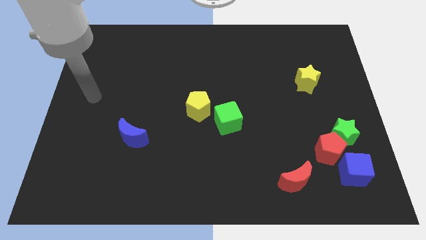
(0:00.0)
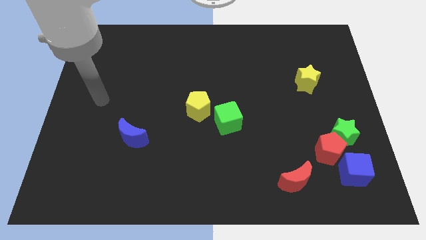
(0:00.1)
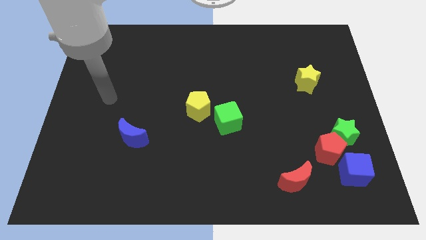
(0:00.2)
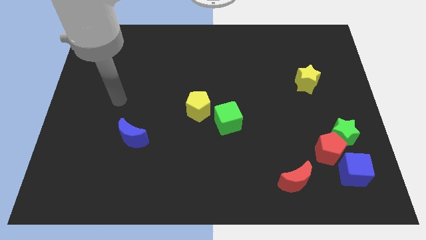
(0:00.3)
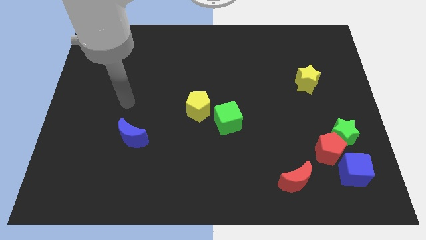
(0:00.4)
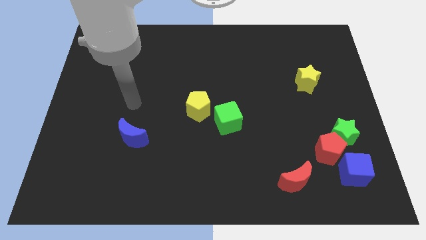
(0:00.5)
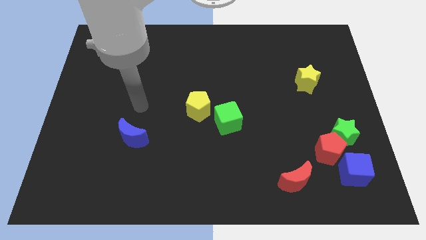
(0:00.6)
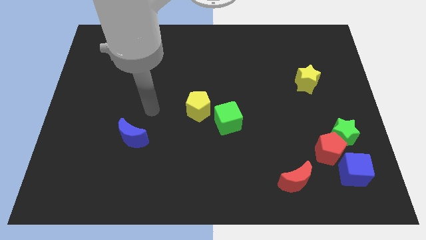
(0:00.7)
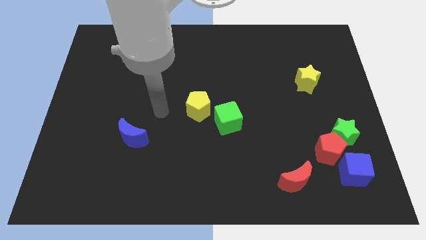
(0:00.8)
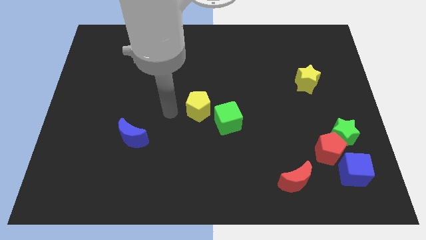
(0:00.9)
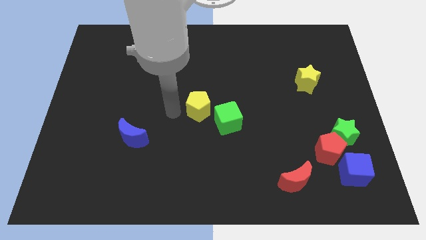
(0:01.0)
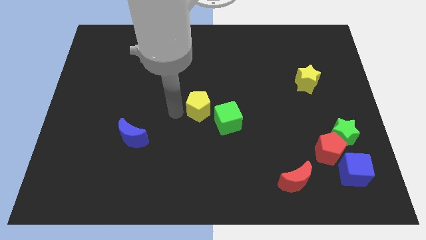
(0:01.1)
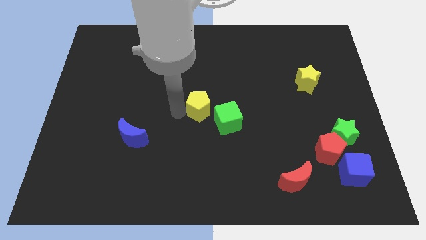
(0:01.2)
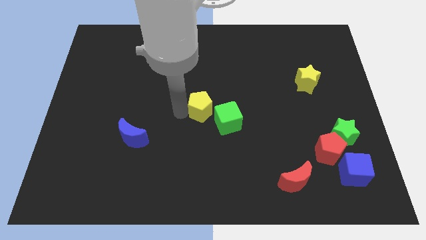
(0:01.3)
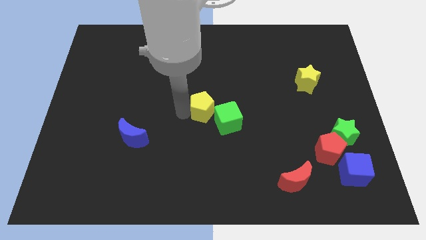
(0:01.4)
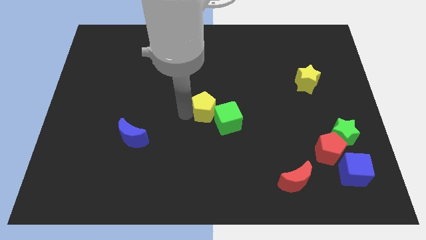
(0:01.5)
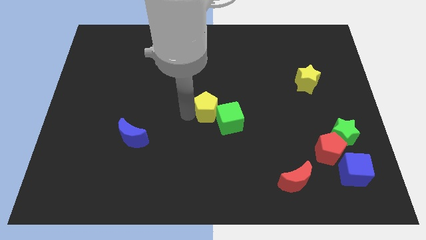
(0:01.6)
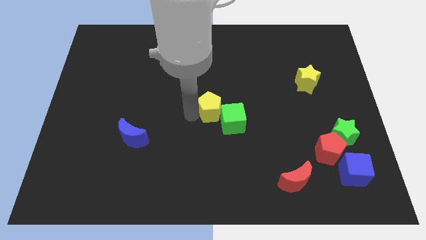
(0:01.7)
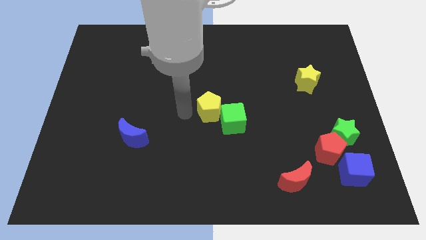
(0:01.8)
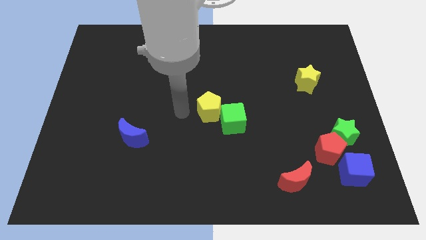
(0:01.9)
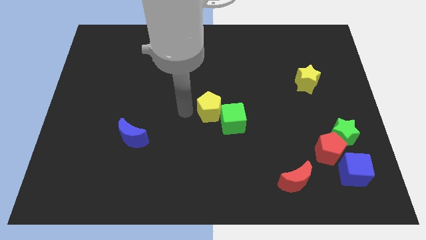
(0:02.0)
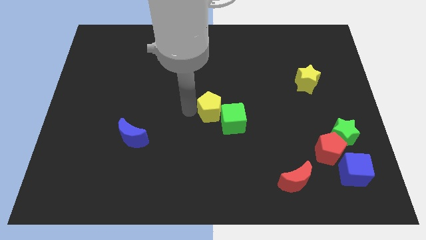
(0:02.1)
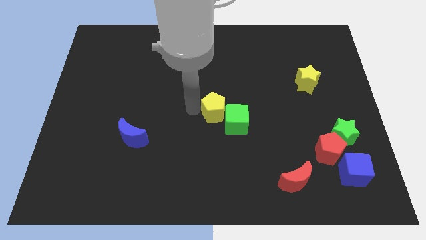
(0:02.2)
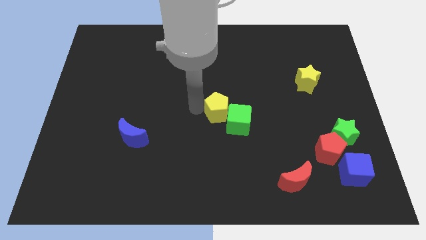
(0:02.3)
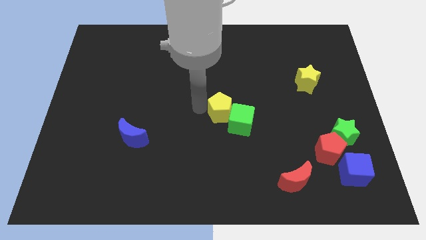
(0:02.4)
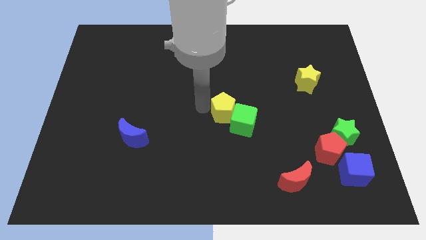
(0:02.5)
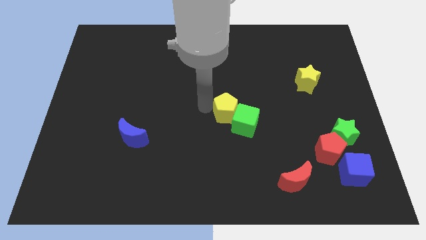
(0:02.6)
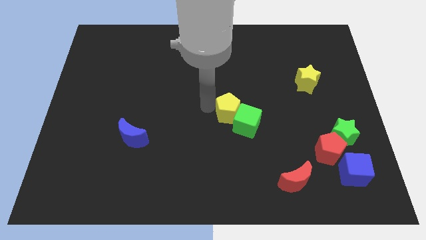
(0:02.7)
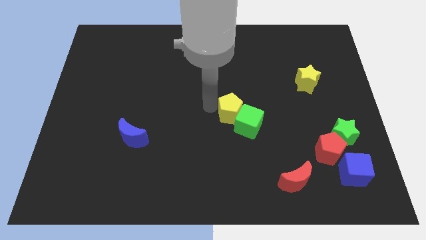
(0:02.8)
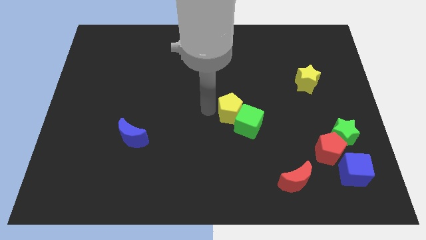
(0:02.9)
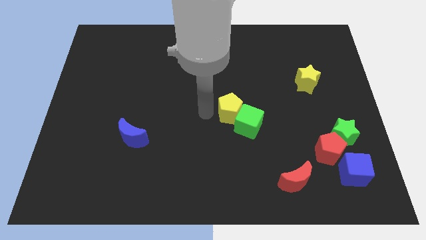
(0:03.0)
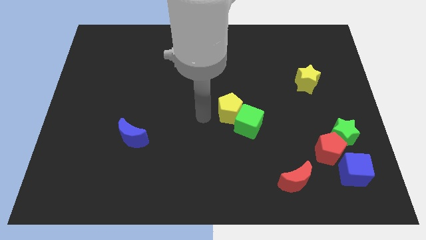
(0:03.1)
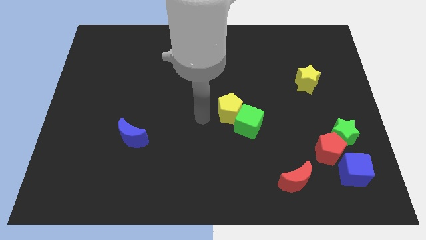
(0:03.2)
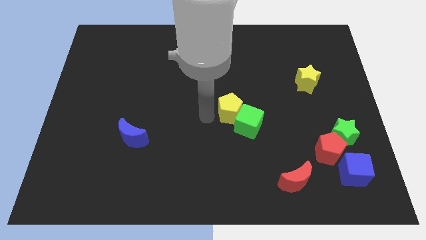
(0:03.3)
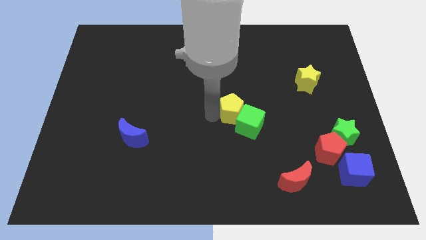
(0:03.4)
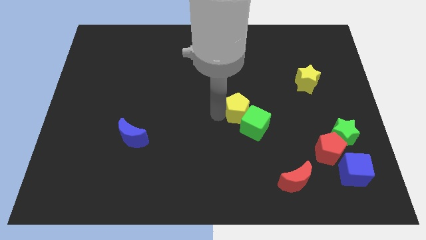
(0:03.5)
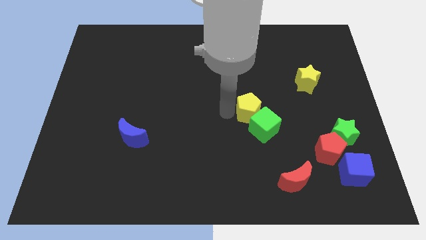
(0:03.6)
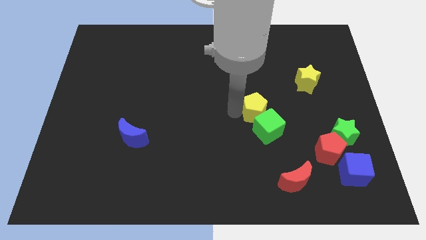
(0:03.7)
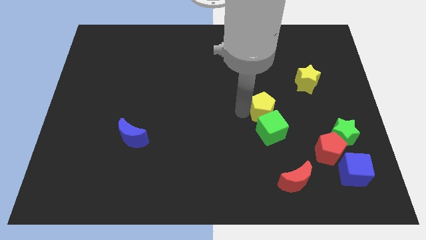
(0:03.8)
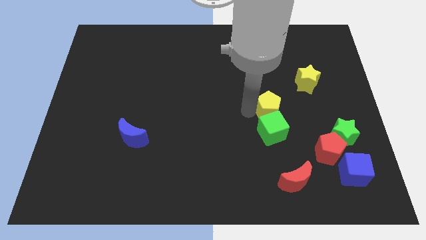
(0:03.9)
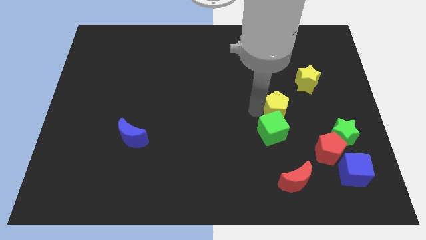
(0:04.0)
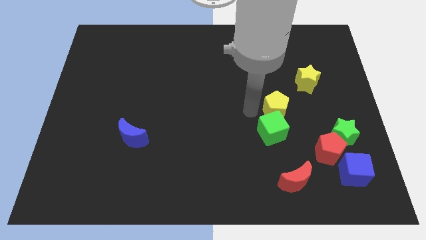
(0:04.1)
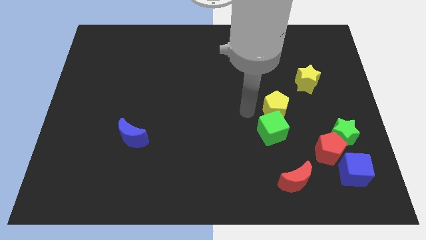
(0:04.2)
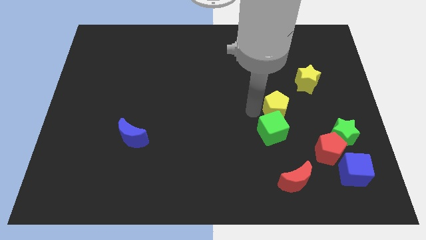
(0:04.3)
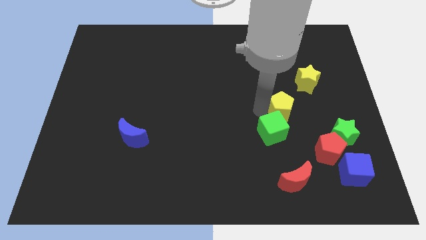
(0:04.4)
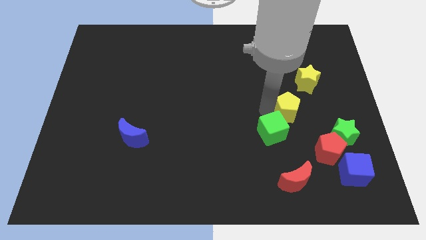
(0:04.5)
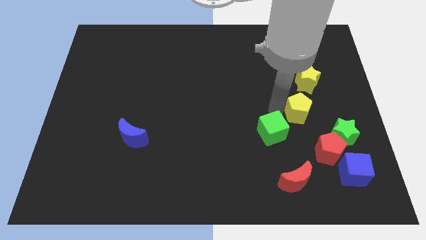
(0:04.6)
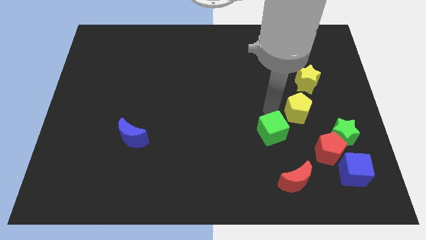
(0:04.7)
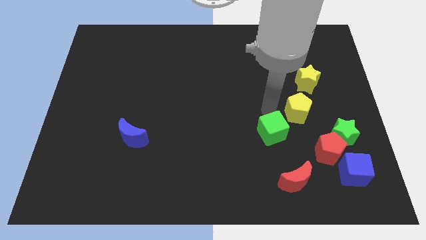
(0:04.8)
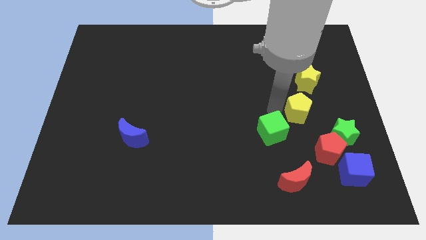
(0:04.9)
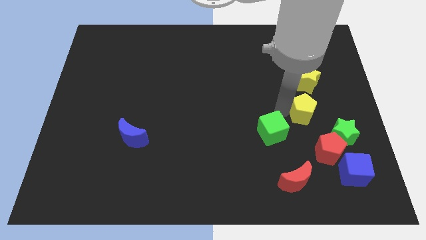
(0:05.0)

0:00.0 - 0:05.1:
push the yellow pentagon above the red pentagon

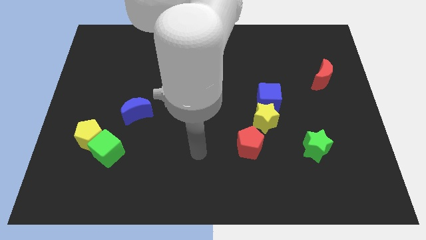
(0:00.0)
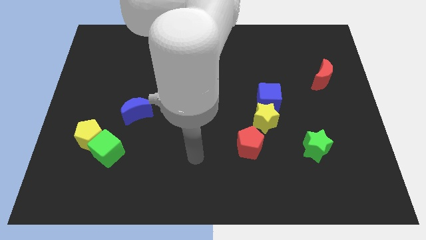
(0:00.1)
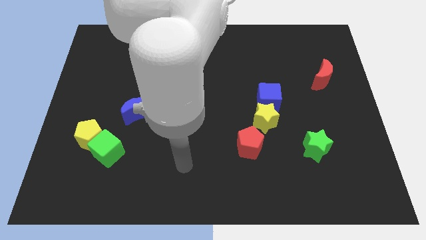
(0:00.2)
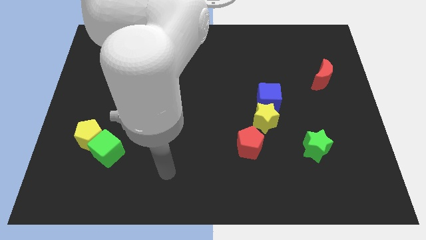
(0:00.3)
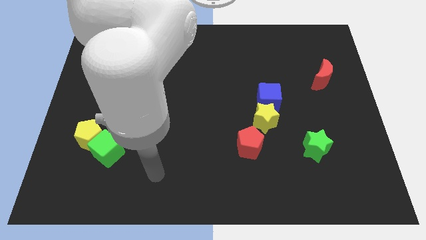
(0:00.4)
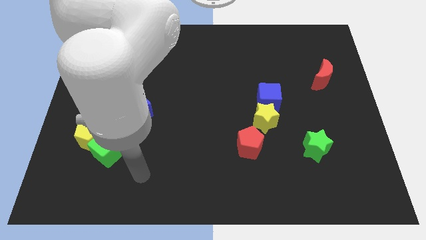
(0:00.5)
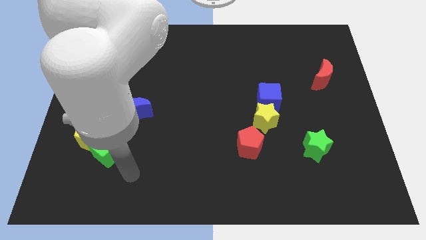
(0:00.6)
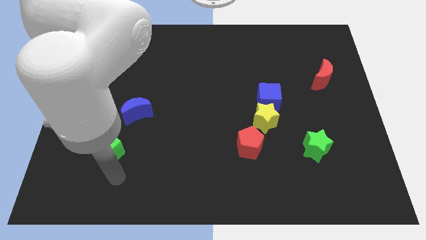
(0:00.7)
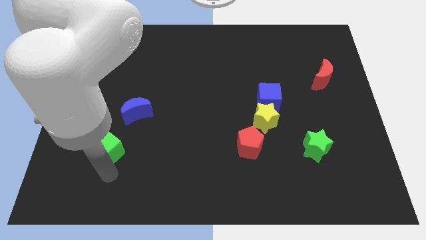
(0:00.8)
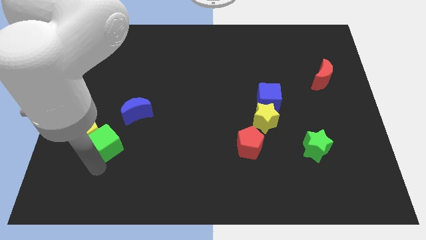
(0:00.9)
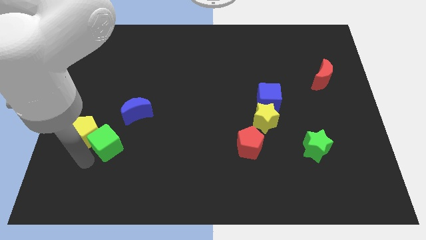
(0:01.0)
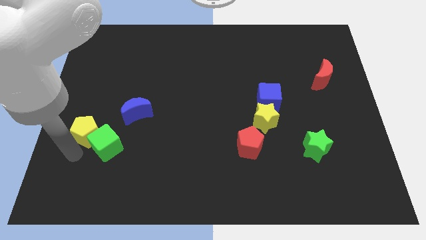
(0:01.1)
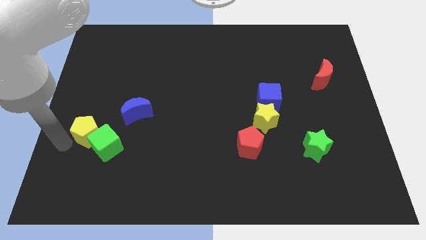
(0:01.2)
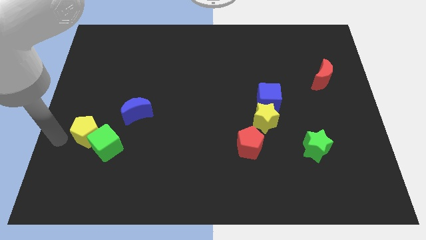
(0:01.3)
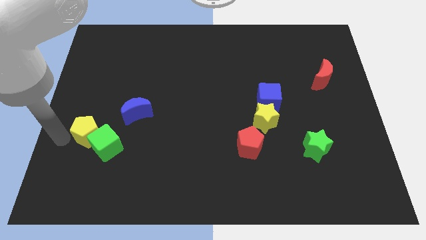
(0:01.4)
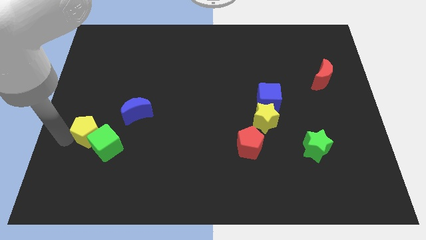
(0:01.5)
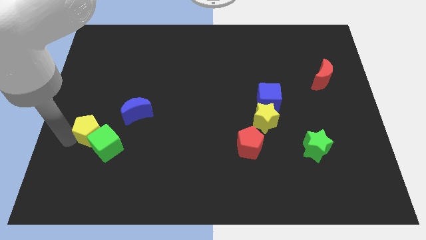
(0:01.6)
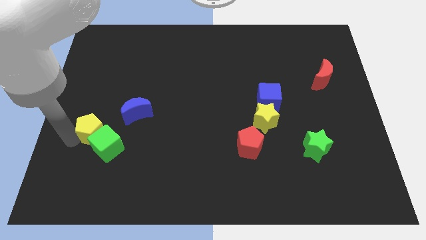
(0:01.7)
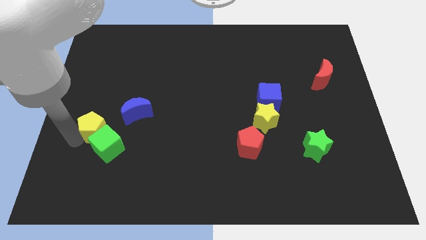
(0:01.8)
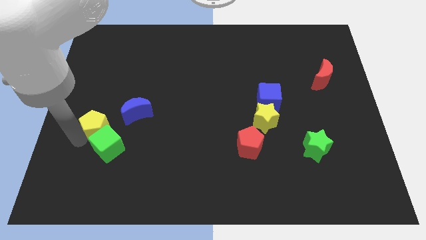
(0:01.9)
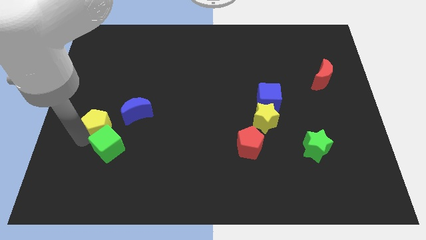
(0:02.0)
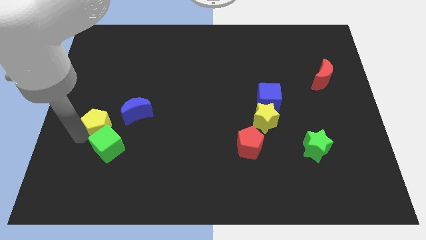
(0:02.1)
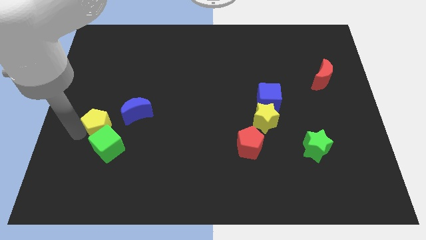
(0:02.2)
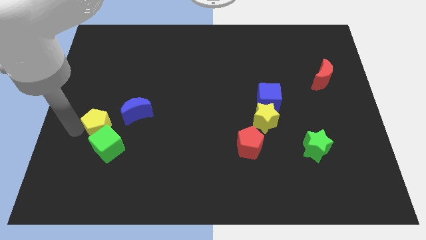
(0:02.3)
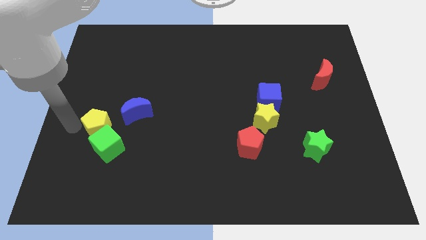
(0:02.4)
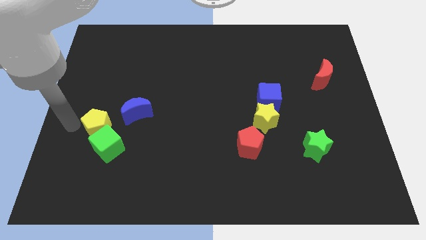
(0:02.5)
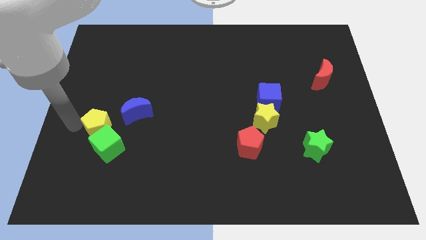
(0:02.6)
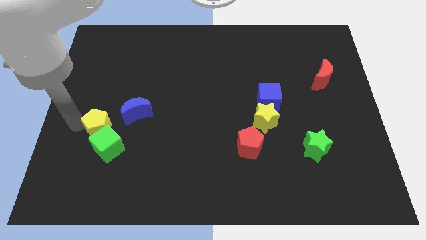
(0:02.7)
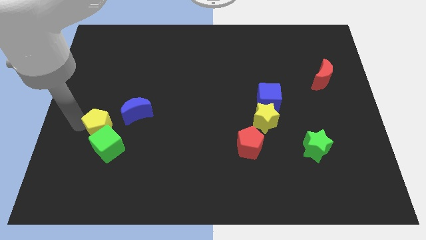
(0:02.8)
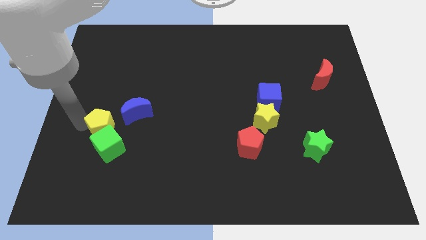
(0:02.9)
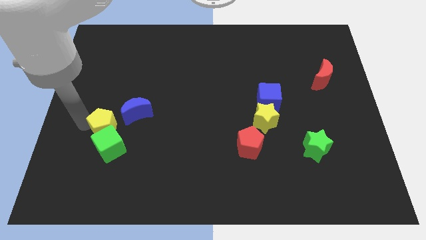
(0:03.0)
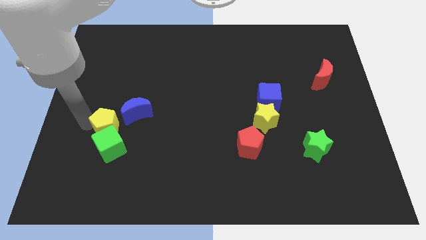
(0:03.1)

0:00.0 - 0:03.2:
move the yellow pentagon to the top right side of the green cube
